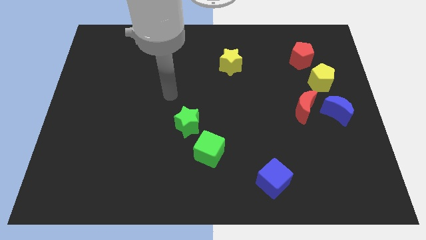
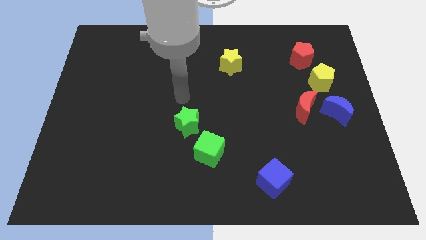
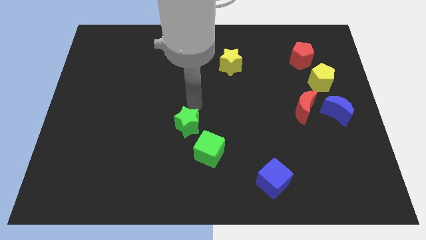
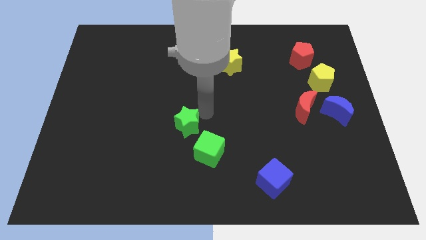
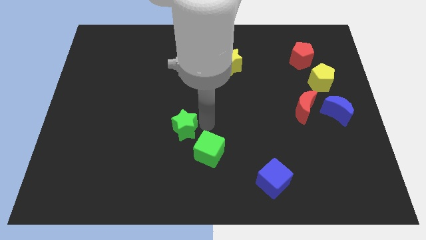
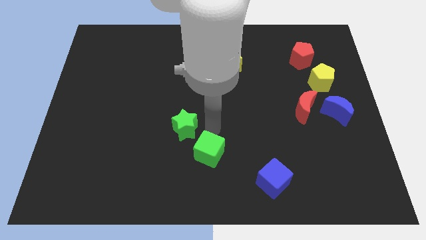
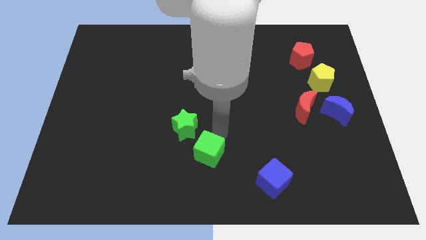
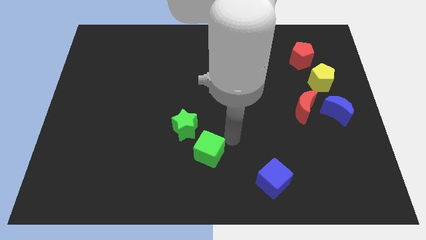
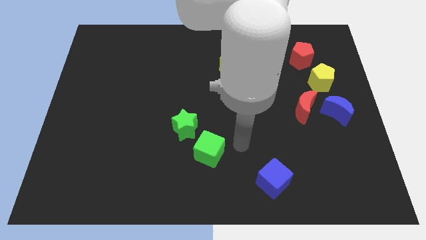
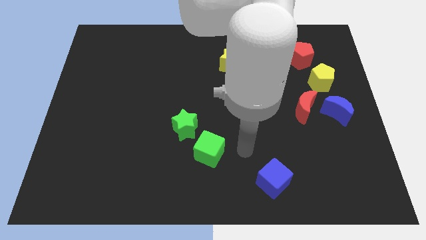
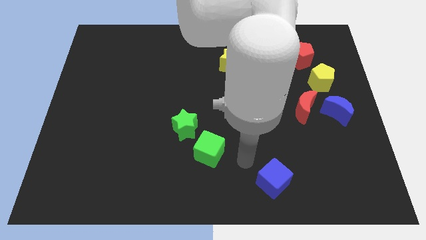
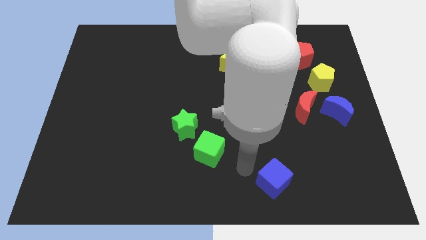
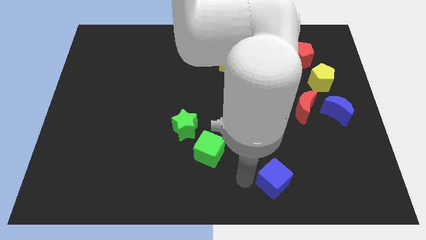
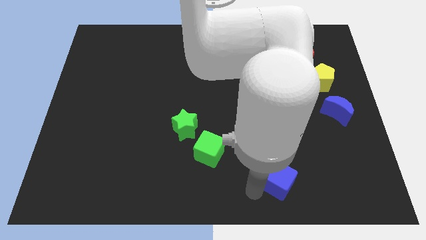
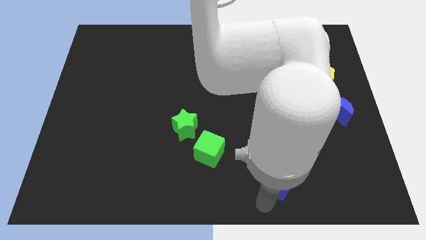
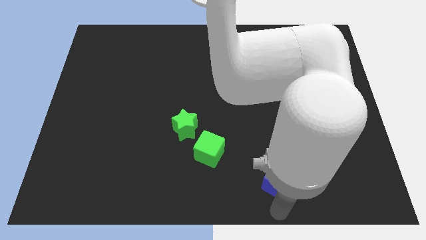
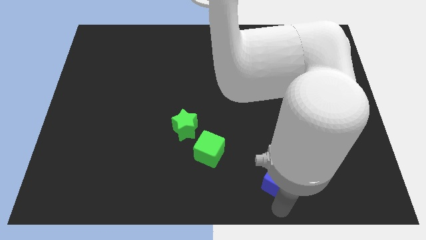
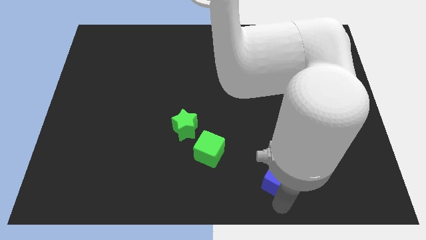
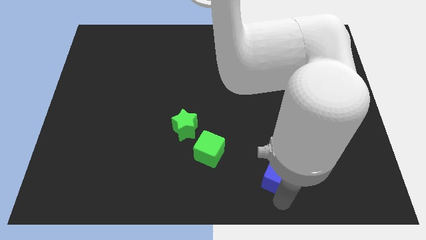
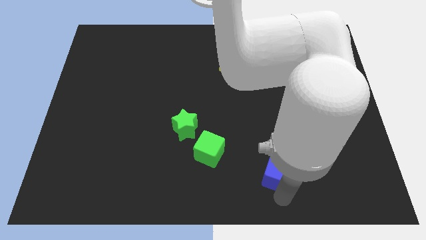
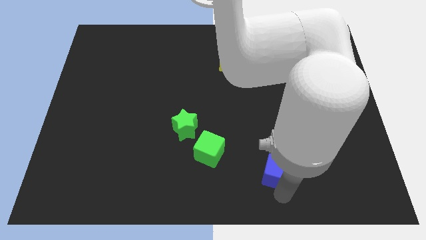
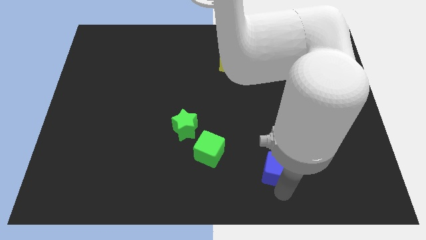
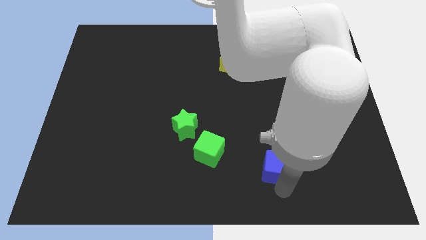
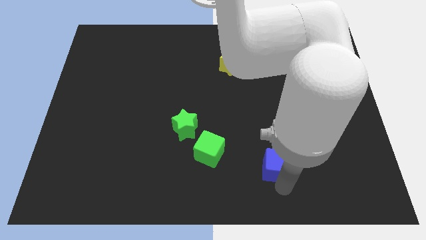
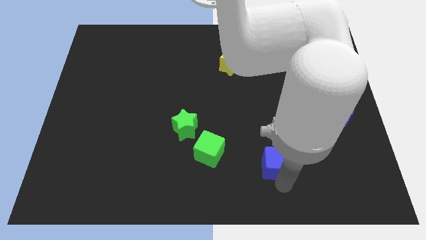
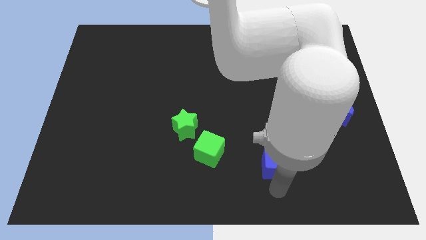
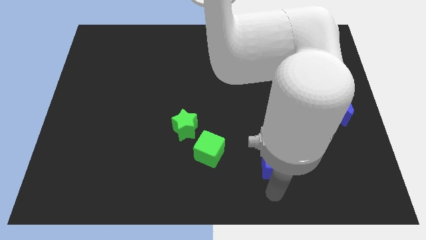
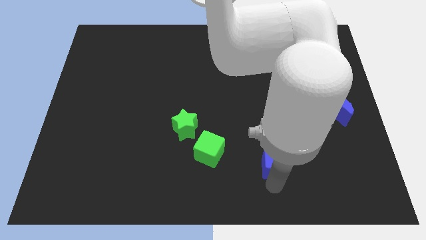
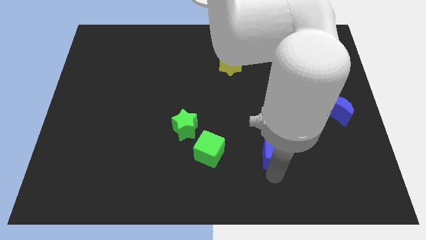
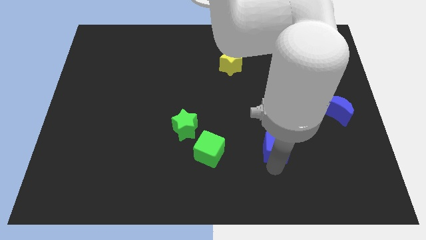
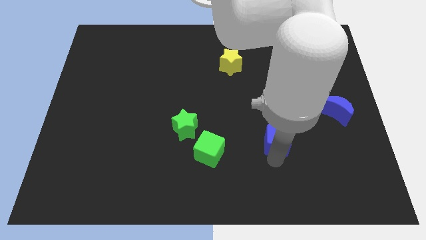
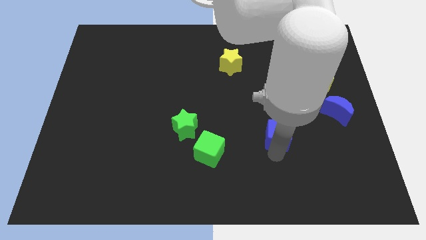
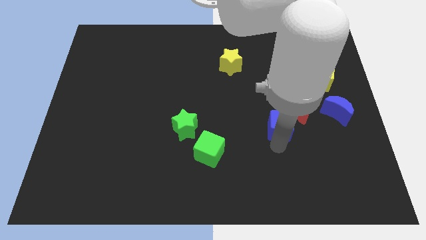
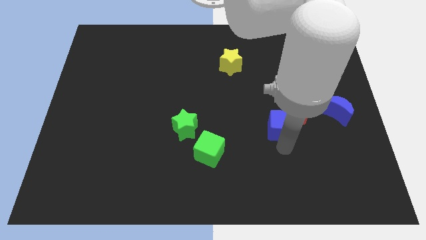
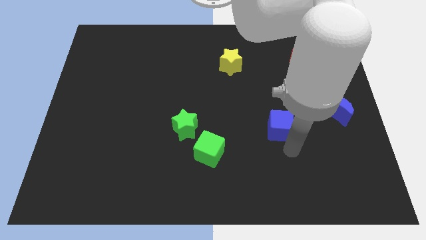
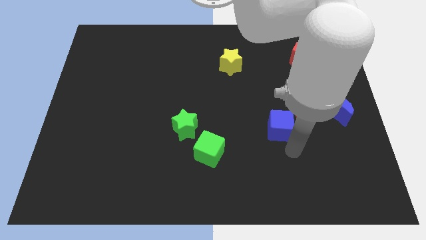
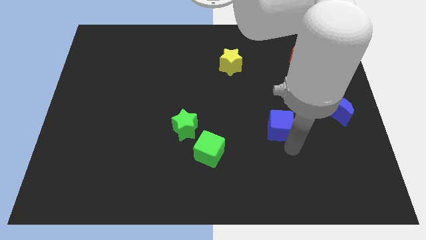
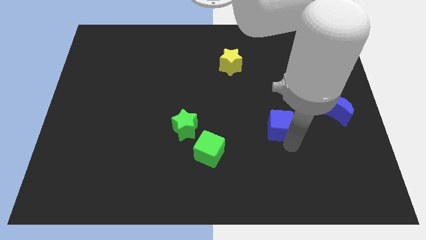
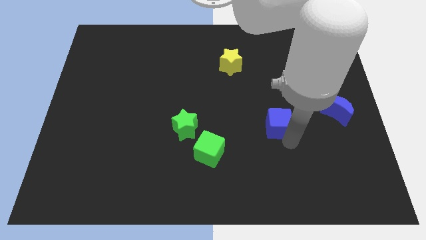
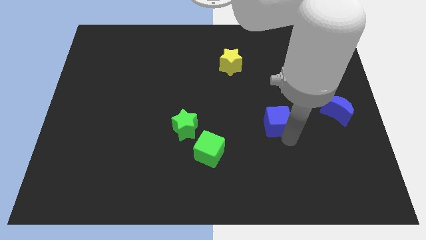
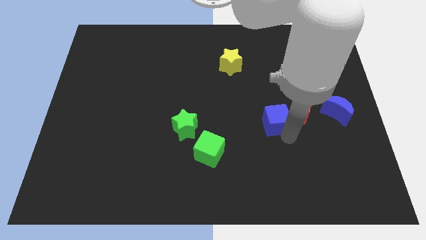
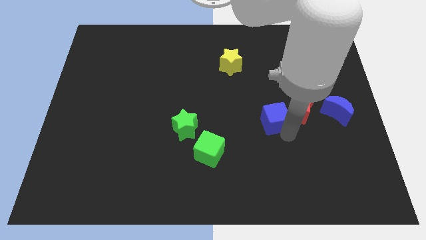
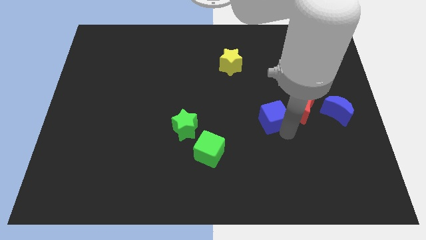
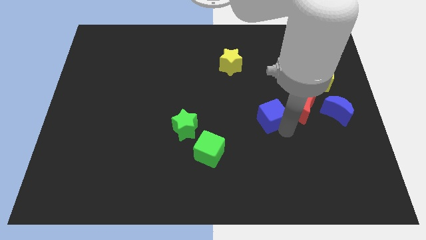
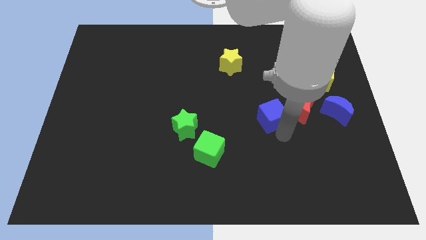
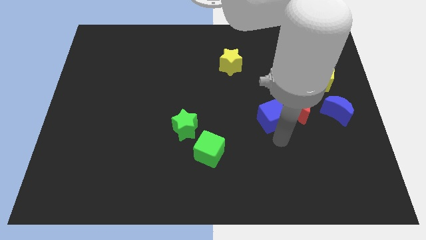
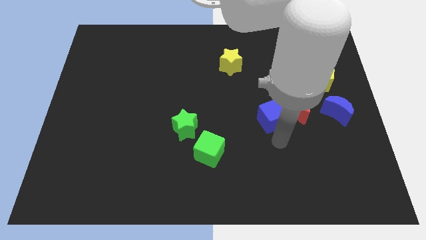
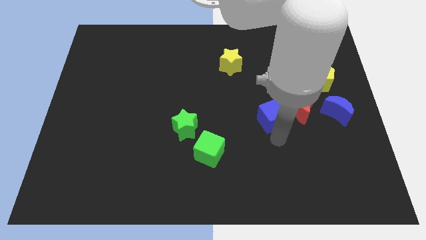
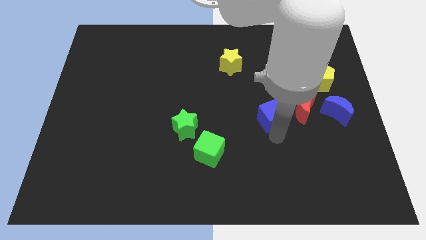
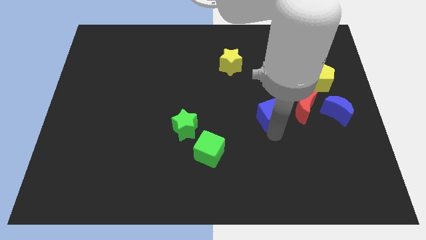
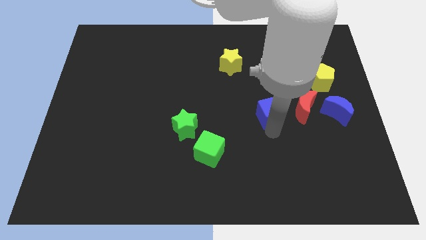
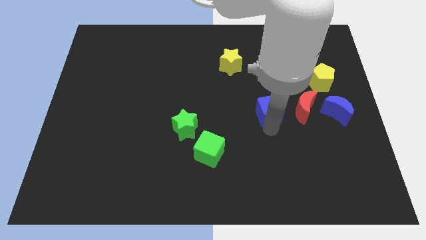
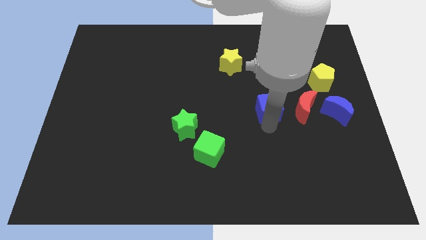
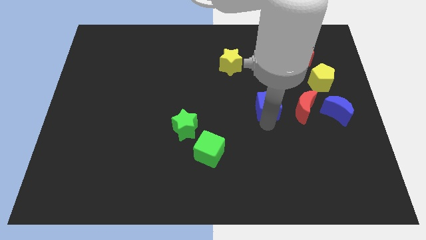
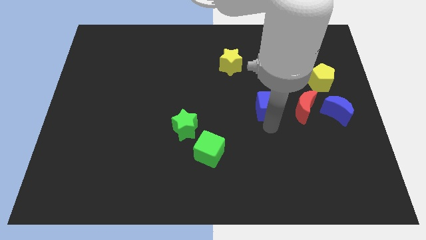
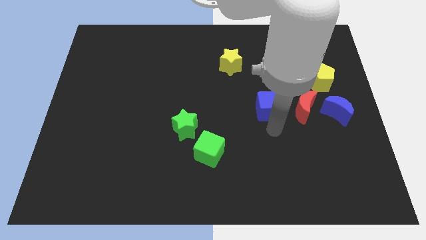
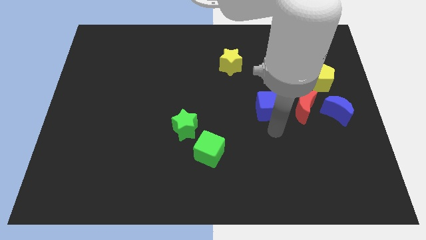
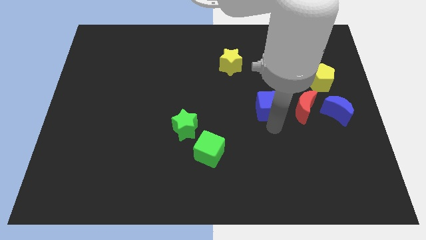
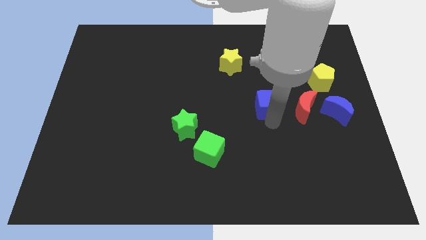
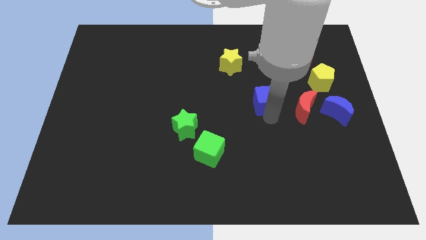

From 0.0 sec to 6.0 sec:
push the blue cube up

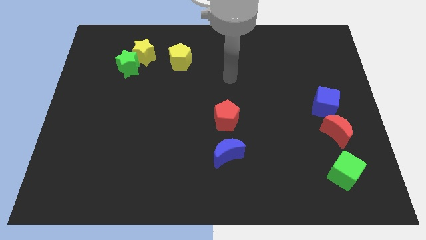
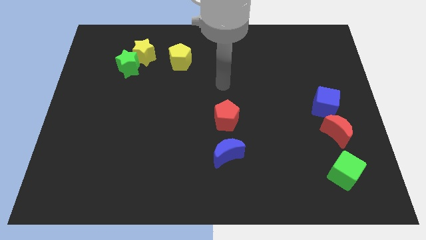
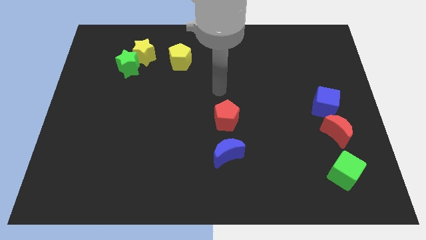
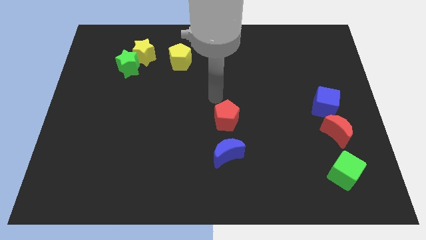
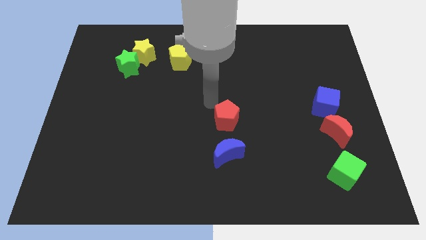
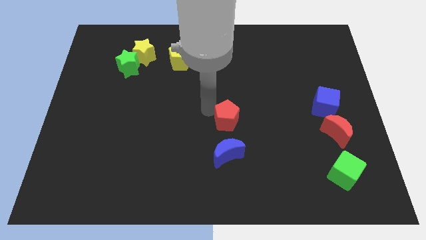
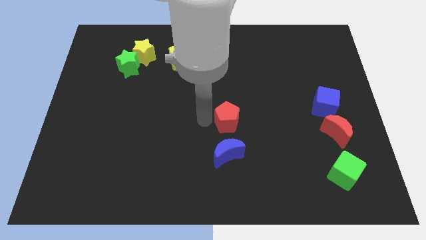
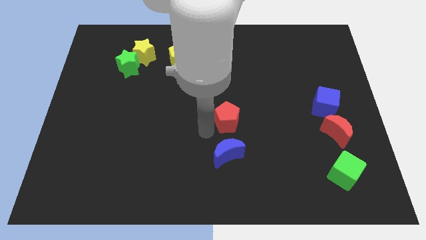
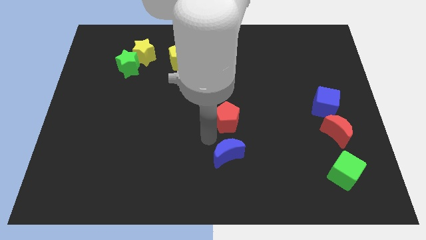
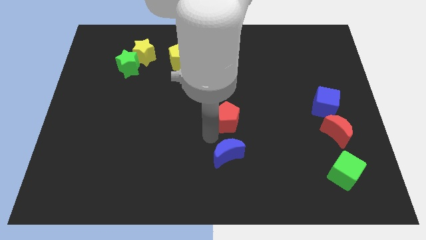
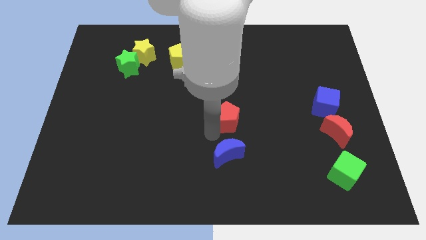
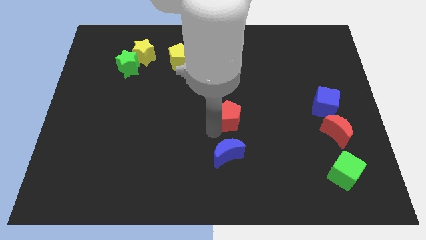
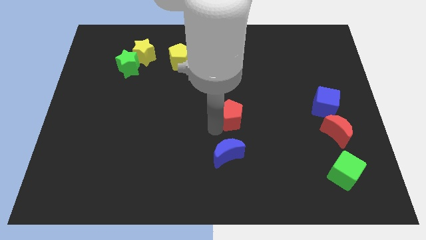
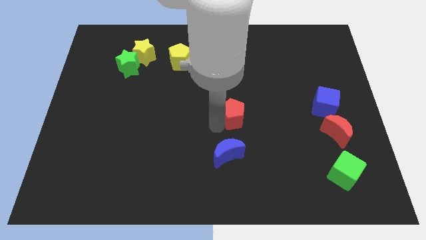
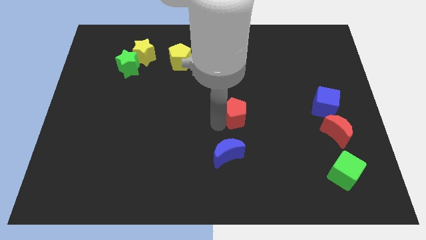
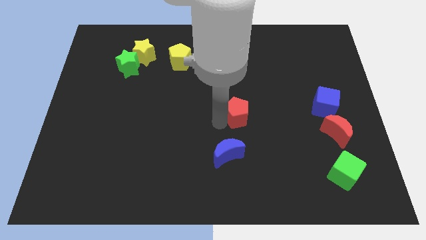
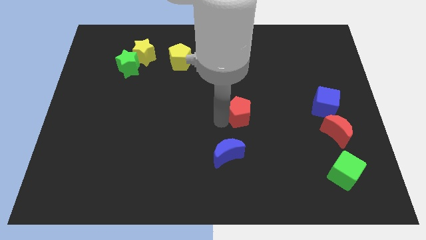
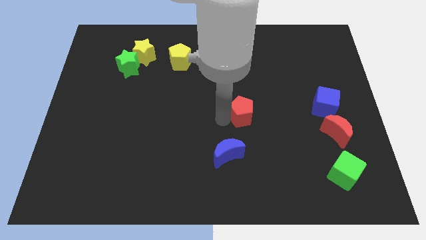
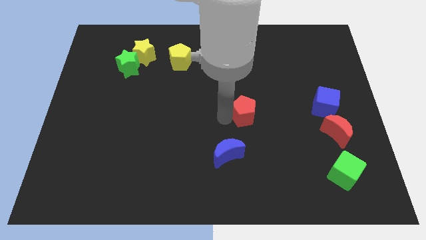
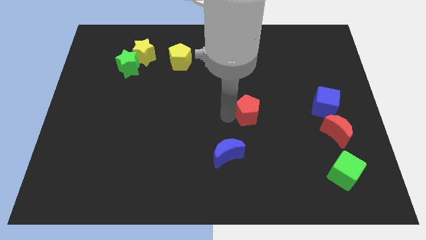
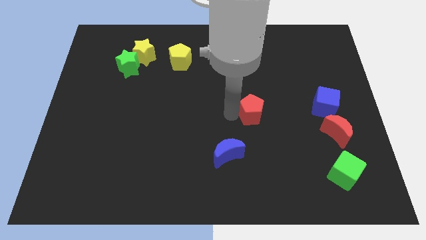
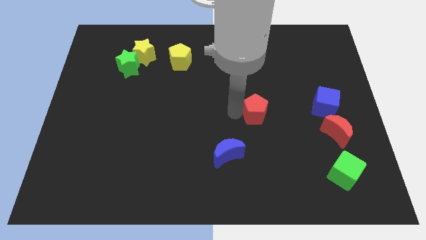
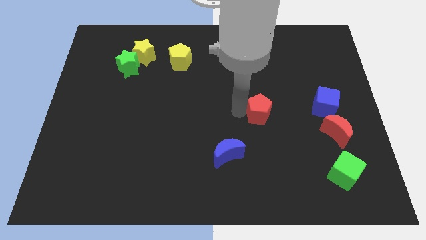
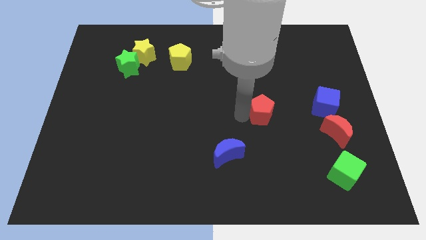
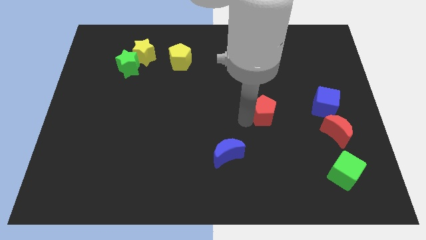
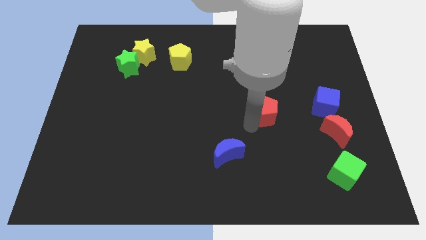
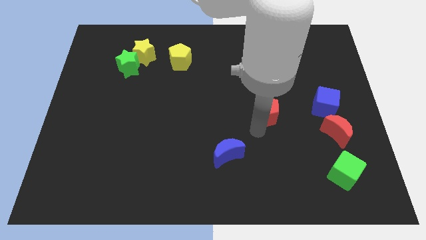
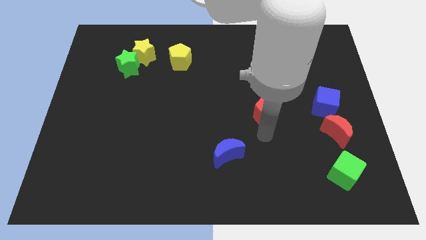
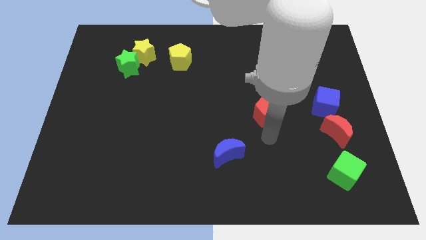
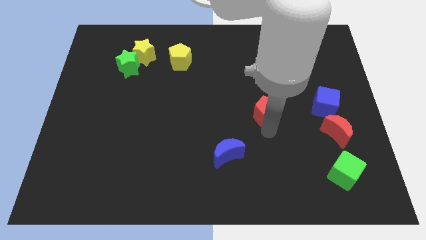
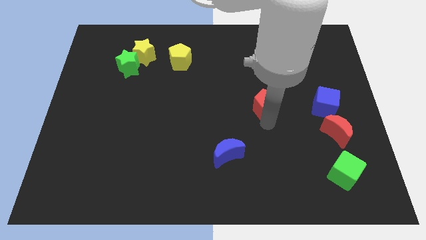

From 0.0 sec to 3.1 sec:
push the red pentagon a bit upwards and to the right diagonally
